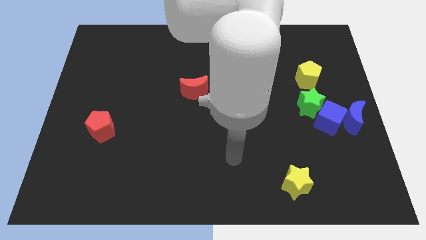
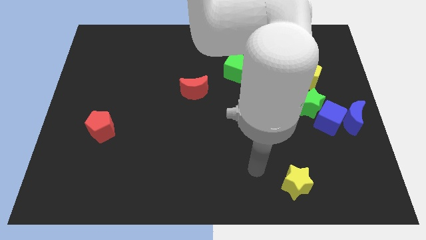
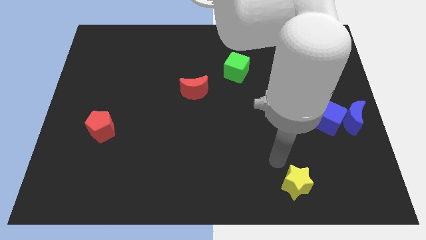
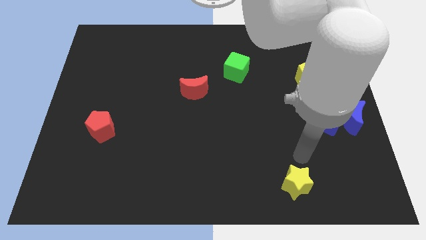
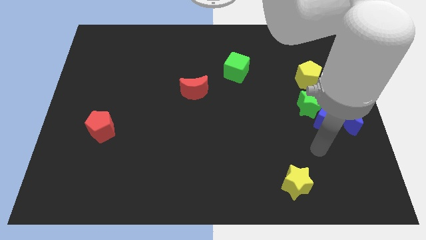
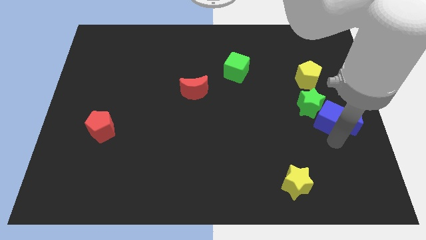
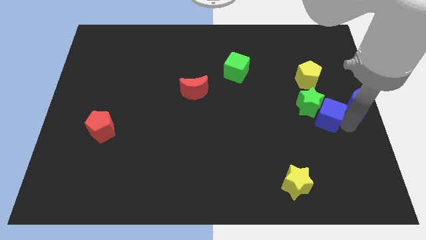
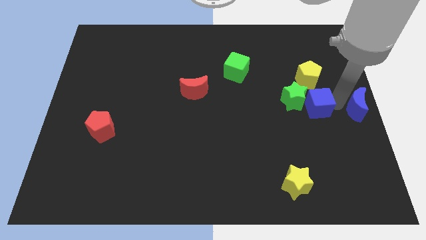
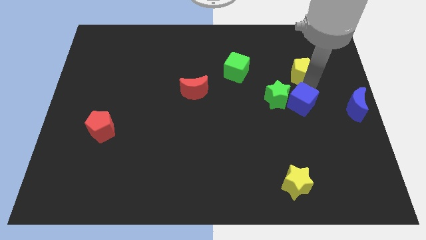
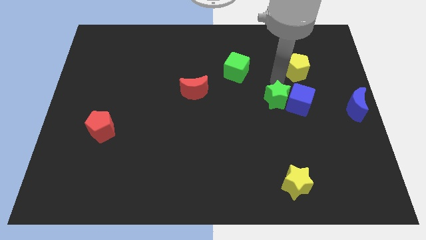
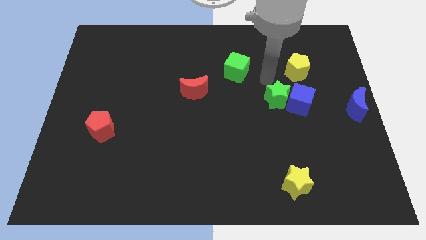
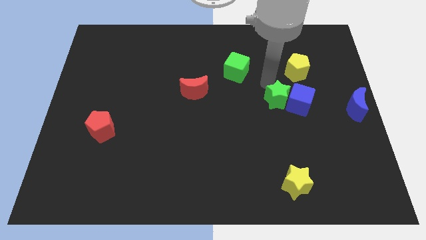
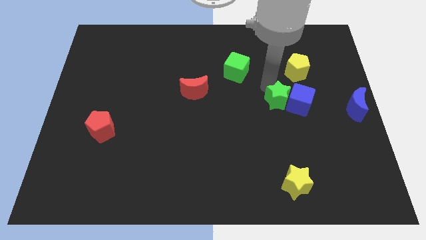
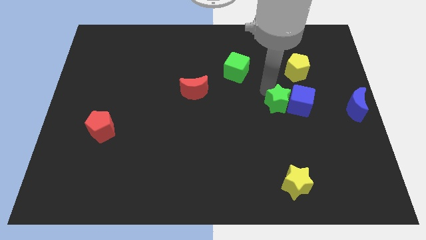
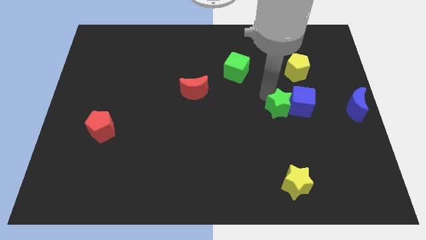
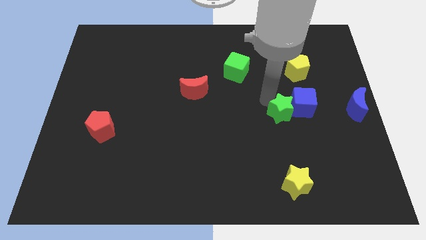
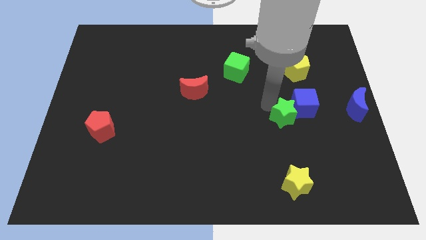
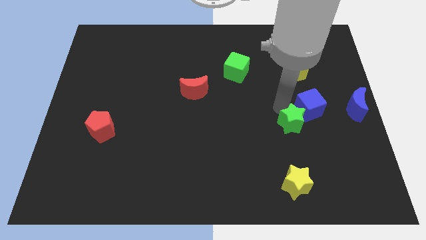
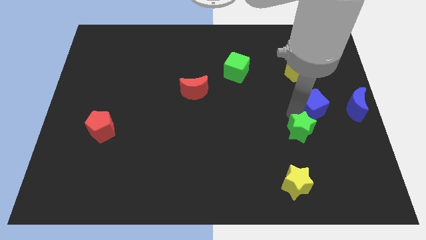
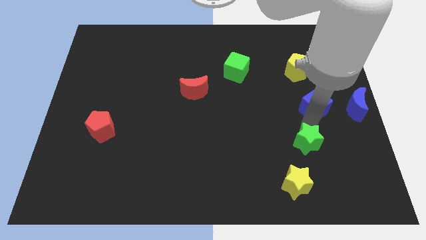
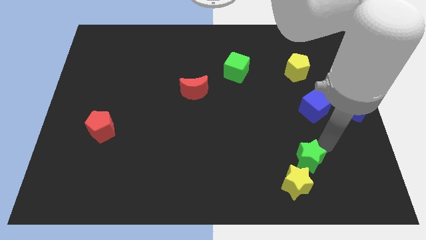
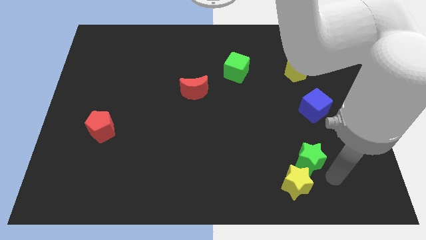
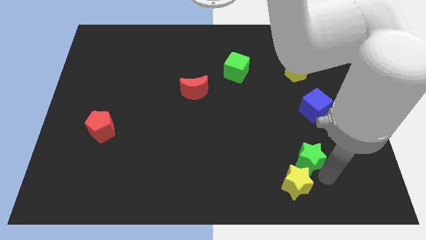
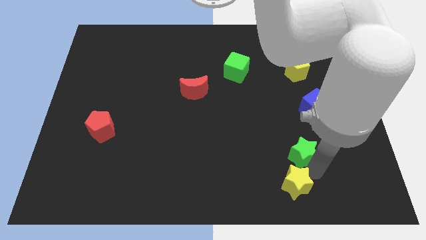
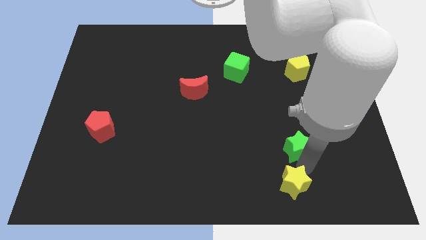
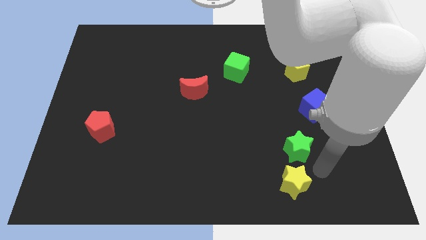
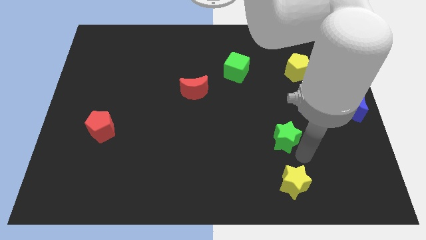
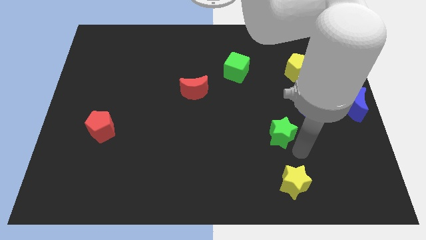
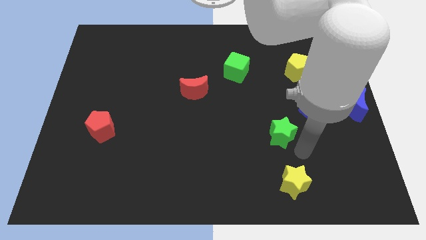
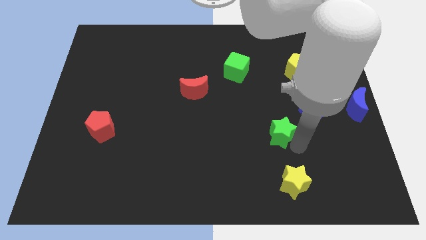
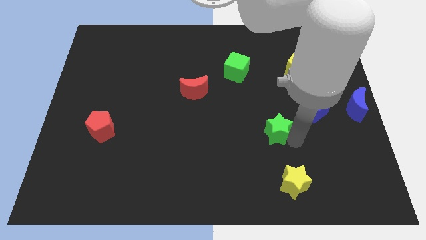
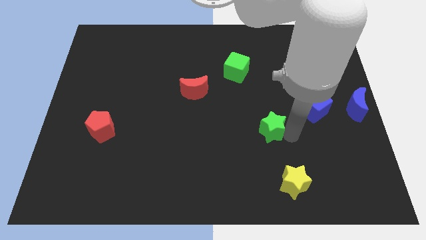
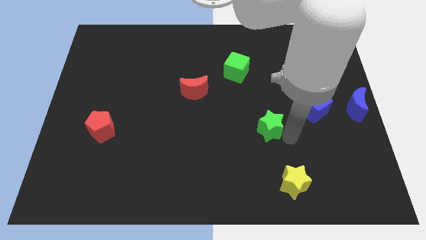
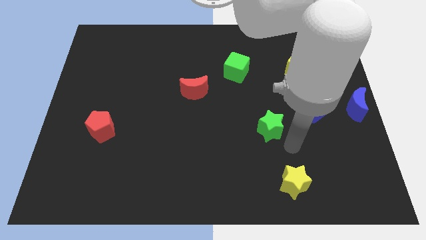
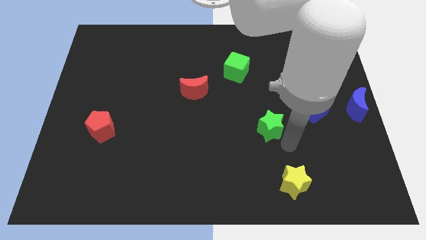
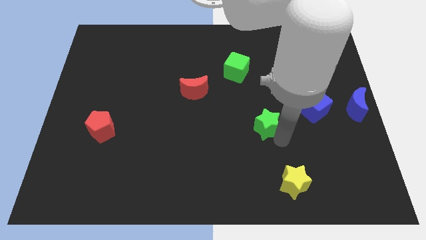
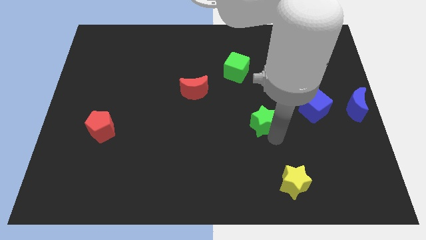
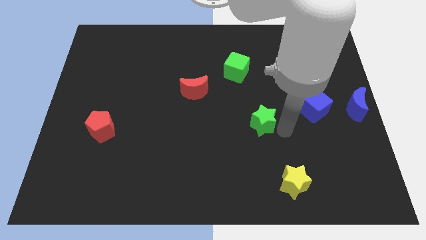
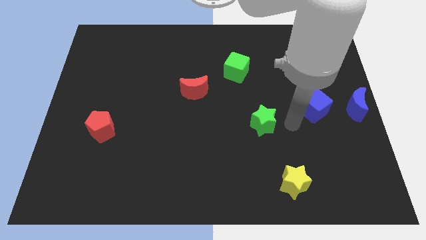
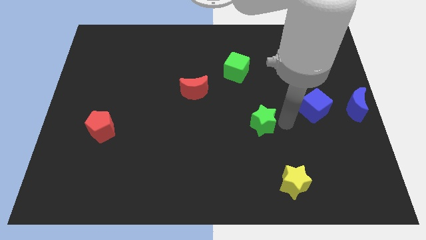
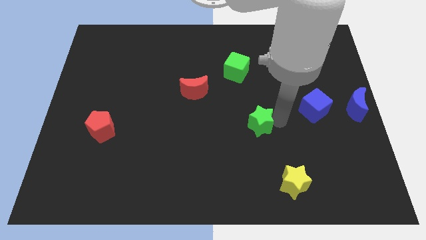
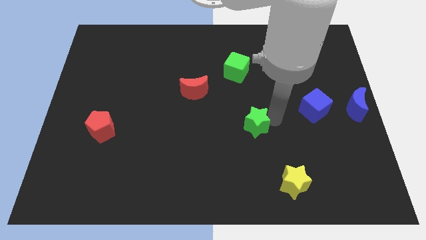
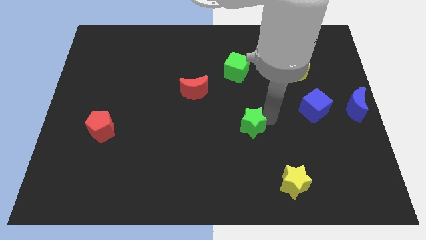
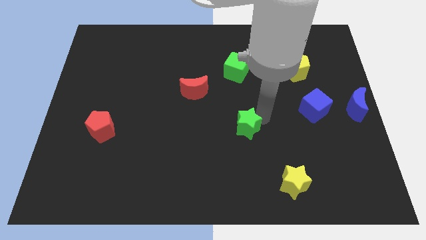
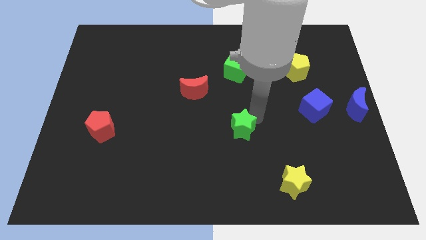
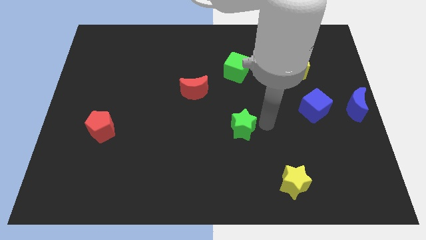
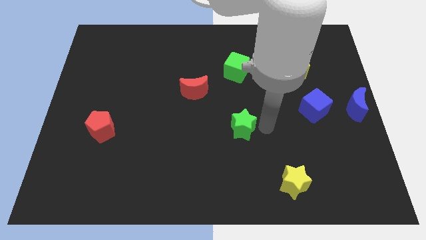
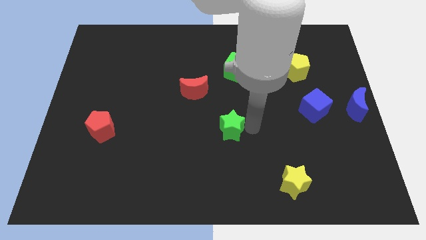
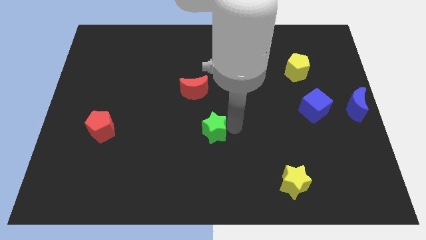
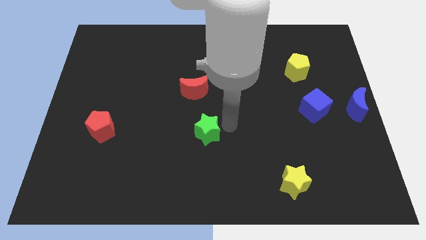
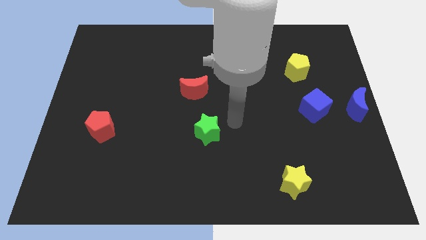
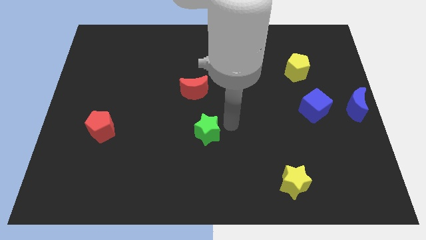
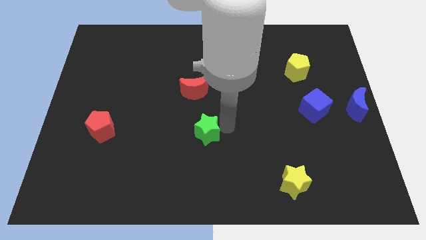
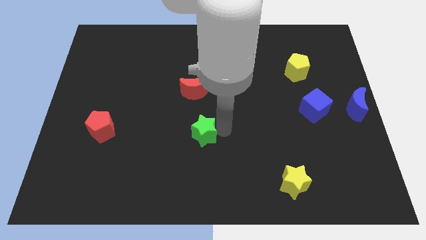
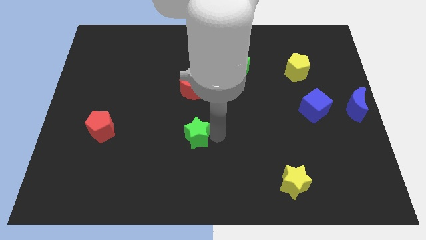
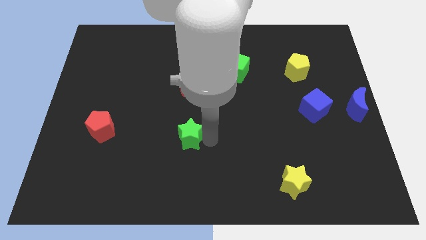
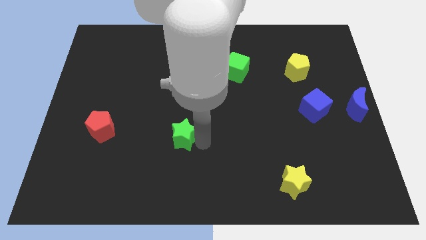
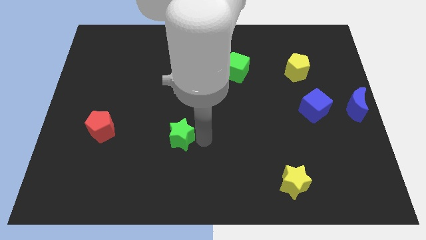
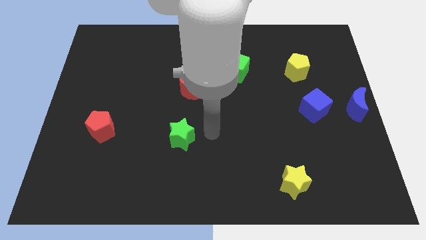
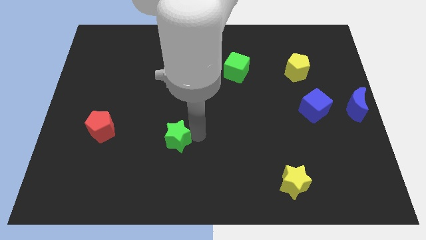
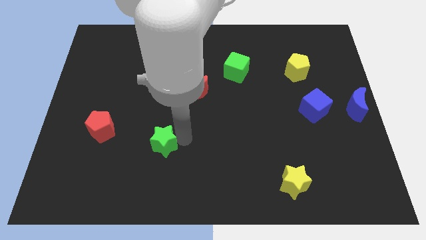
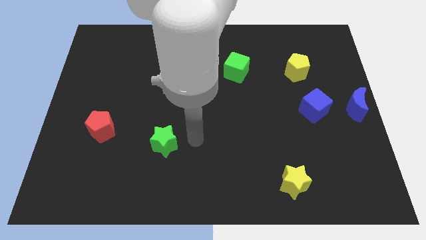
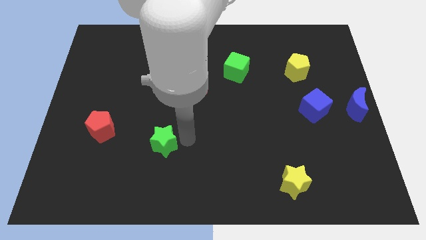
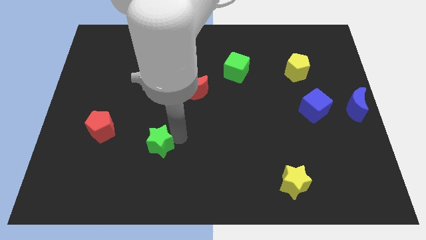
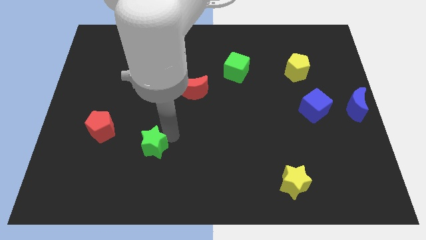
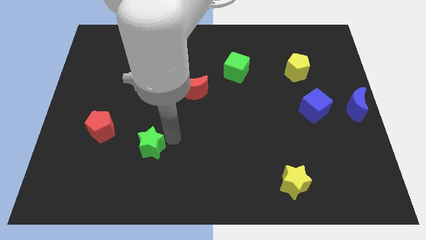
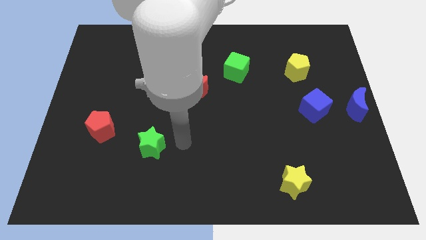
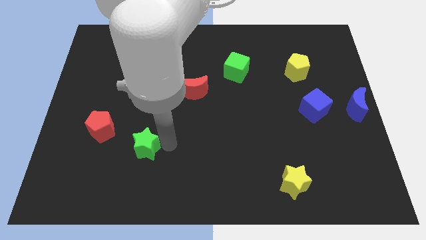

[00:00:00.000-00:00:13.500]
move the green star to the bottom right of the red pentagon

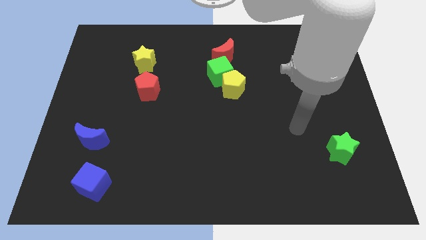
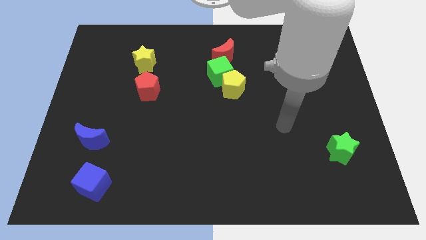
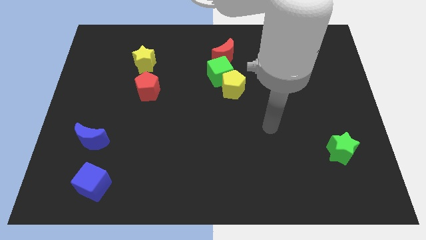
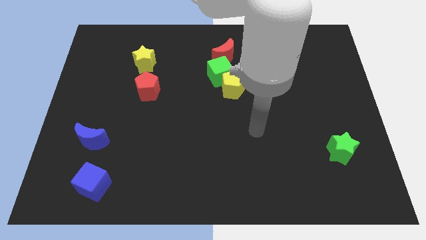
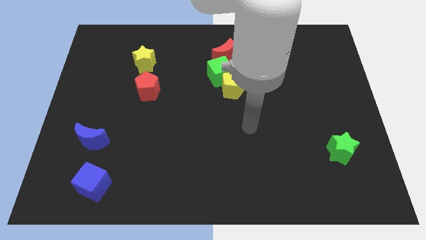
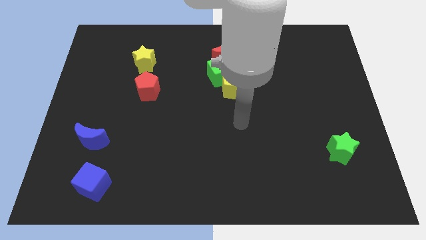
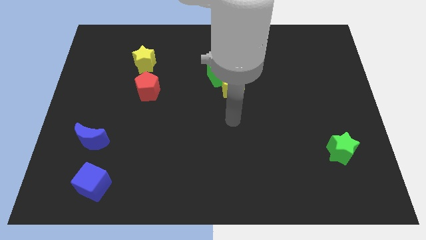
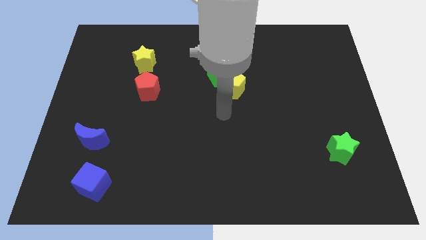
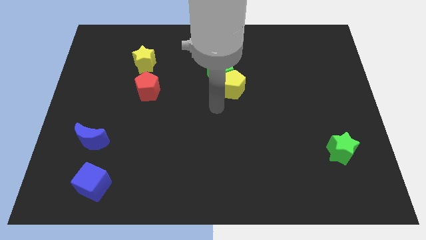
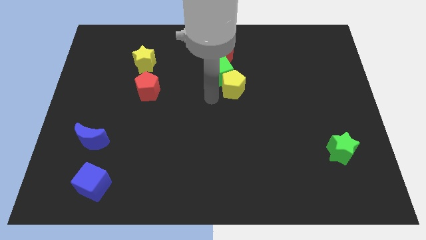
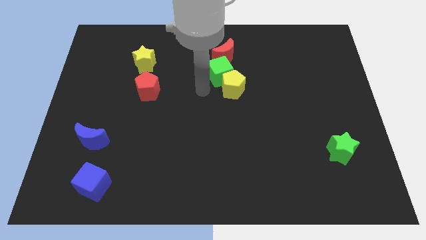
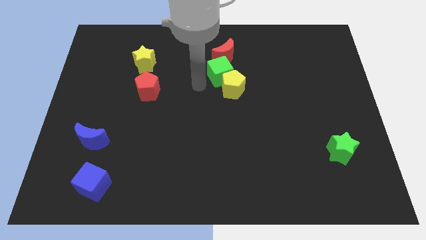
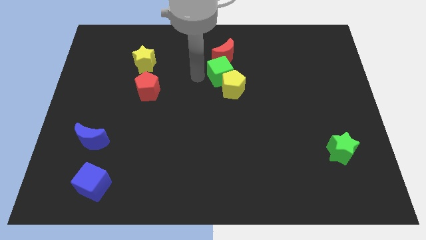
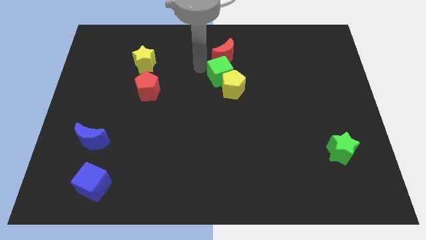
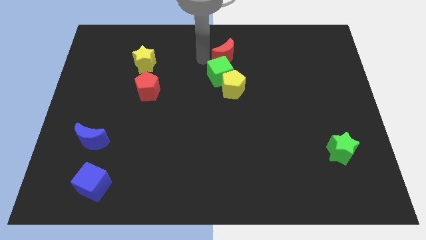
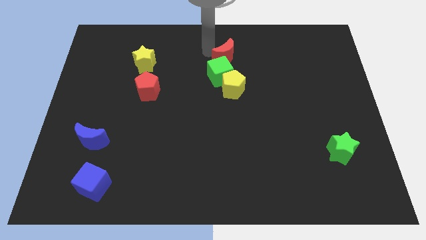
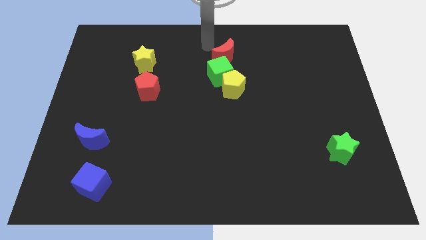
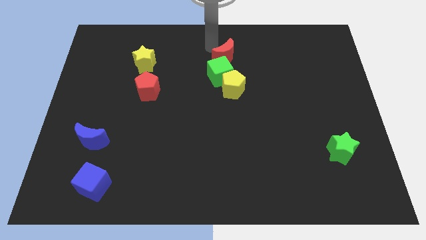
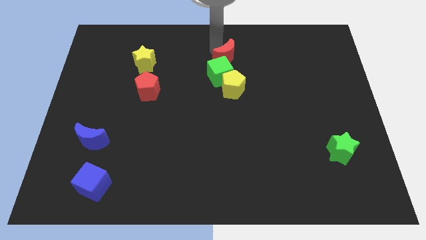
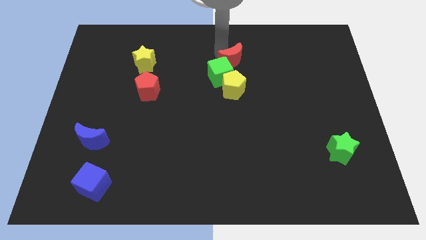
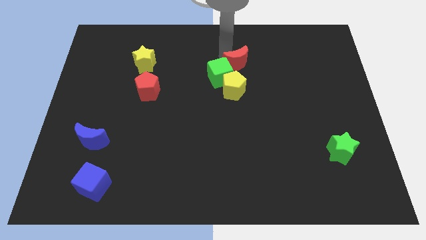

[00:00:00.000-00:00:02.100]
slide the red moon just right of the green cube
